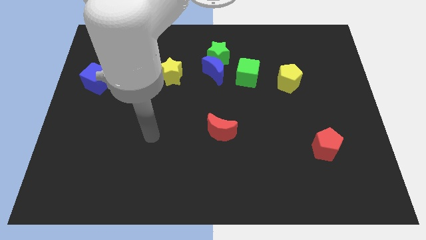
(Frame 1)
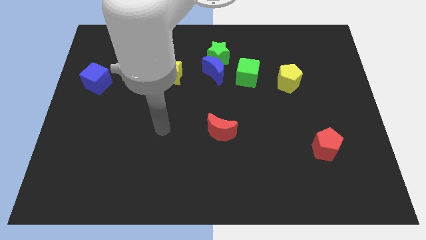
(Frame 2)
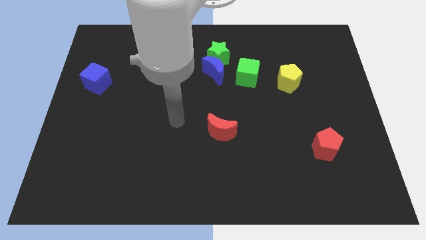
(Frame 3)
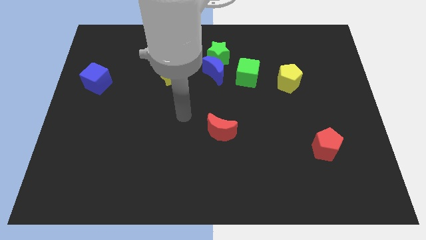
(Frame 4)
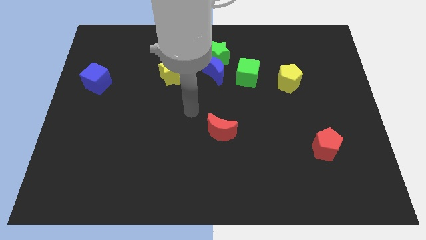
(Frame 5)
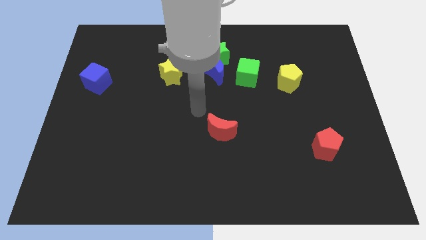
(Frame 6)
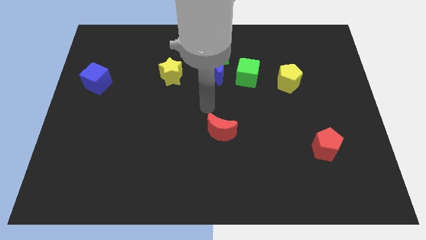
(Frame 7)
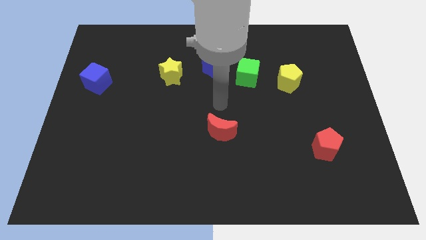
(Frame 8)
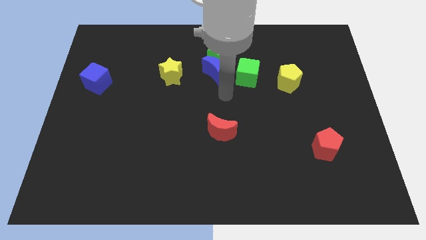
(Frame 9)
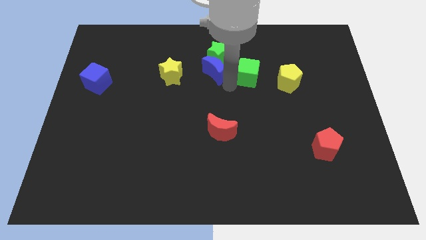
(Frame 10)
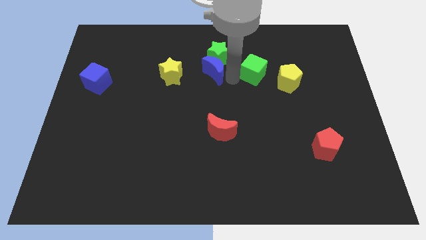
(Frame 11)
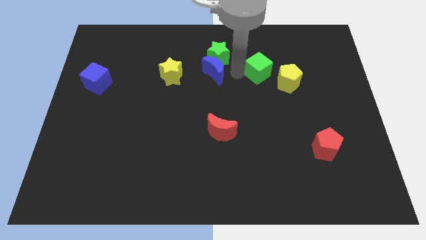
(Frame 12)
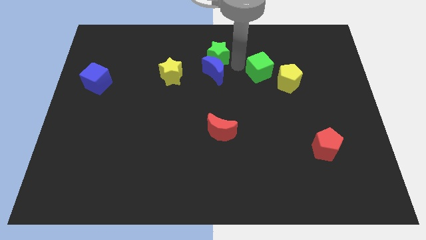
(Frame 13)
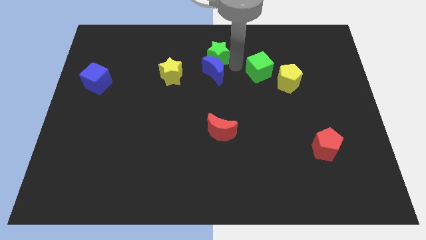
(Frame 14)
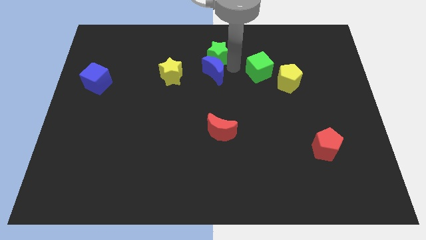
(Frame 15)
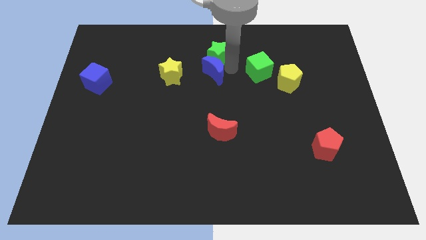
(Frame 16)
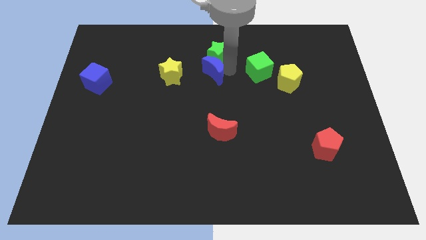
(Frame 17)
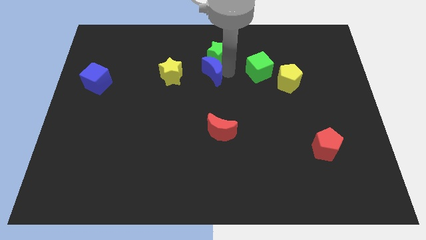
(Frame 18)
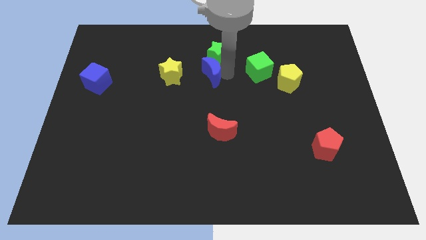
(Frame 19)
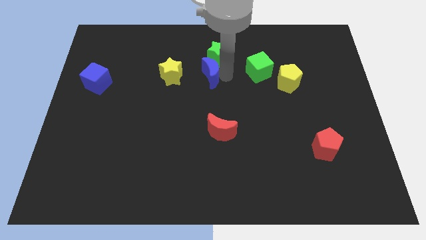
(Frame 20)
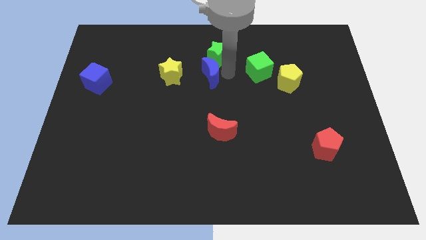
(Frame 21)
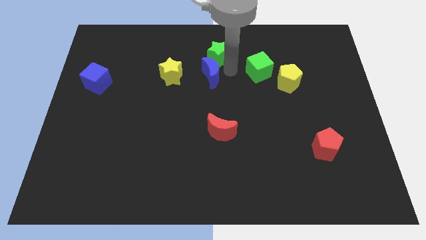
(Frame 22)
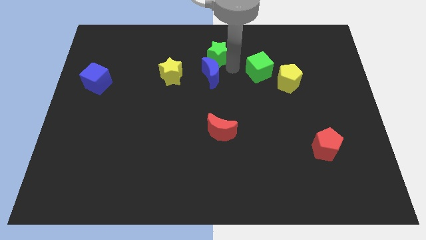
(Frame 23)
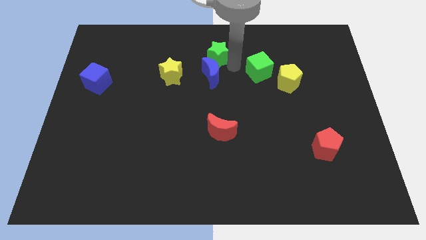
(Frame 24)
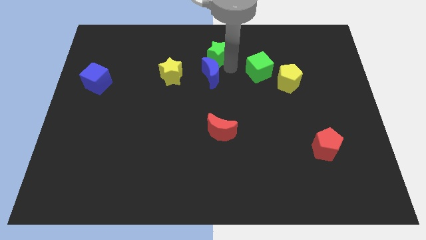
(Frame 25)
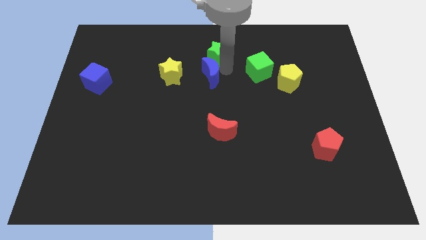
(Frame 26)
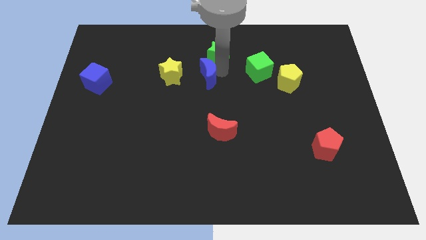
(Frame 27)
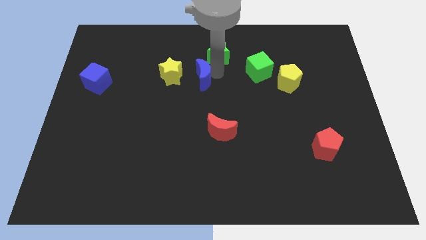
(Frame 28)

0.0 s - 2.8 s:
pull the blue moon apart from the green star and green cube

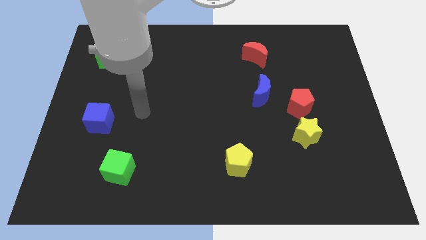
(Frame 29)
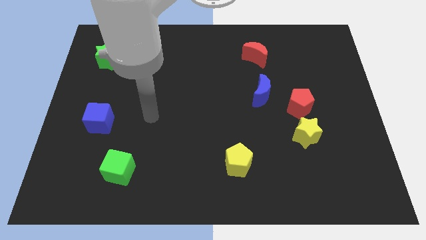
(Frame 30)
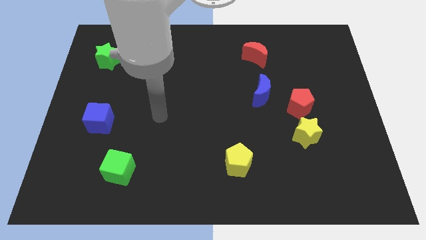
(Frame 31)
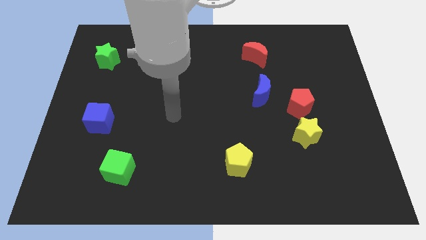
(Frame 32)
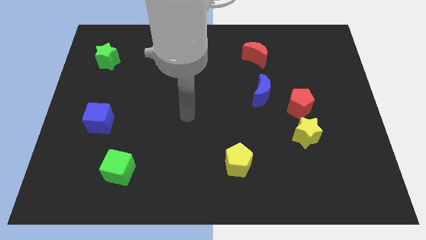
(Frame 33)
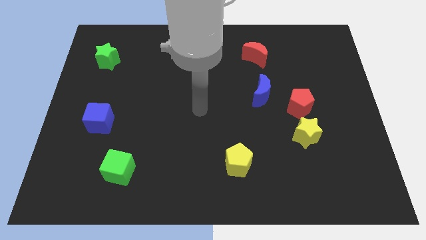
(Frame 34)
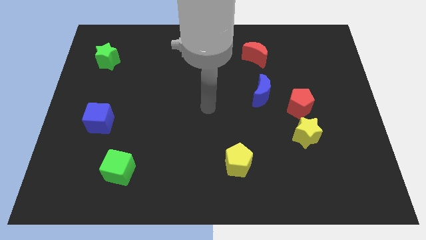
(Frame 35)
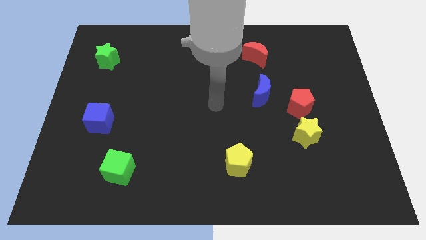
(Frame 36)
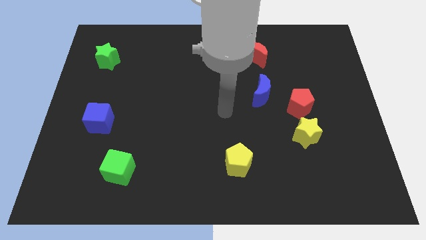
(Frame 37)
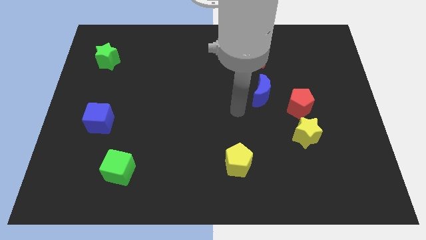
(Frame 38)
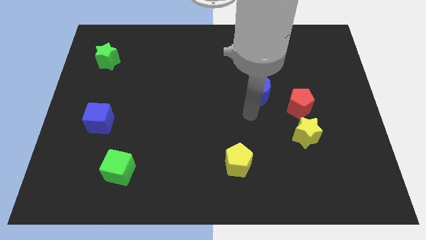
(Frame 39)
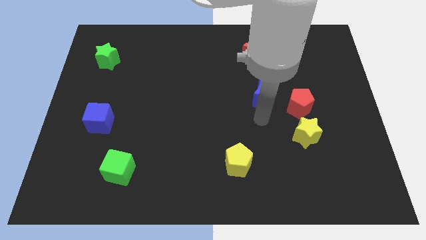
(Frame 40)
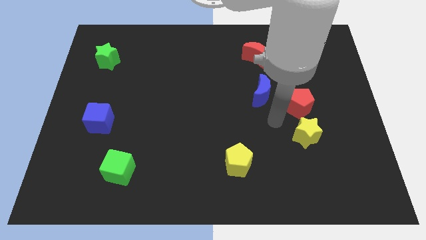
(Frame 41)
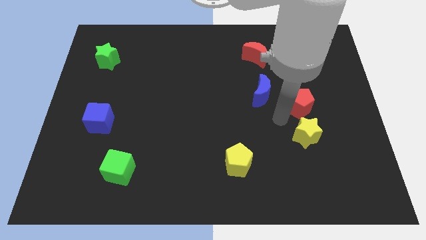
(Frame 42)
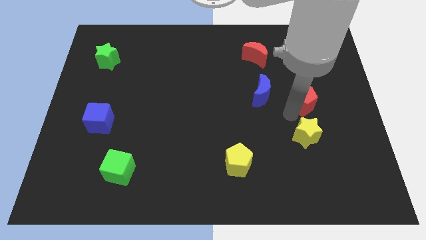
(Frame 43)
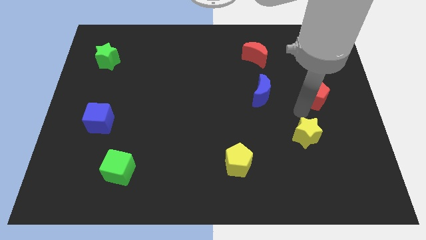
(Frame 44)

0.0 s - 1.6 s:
move the yellow star away from the red pentagon

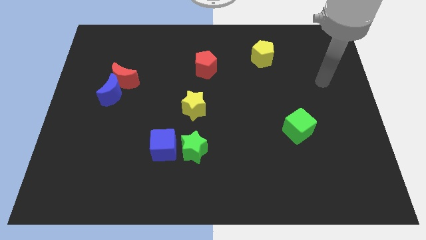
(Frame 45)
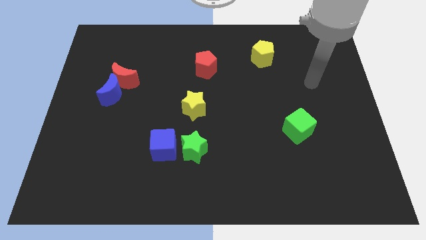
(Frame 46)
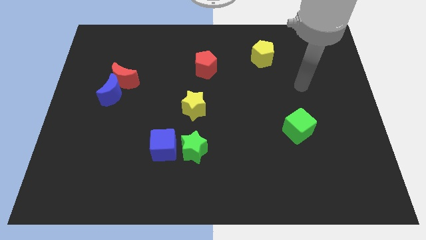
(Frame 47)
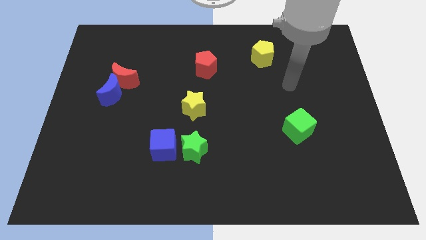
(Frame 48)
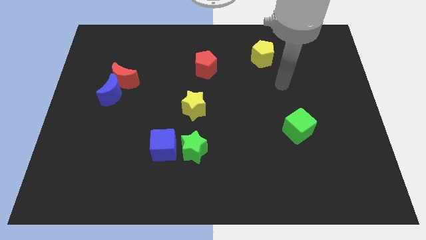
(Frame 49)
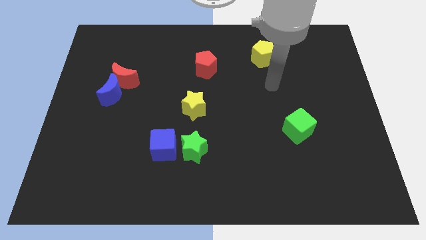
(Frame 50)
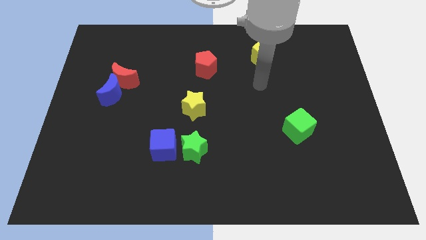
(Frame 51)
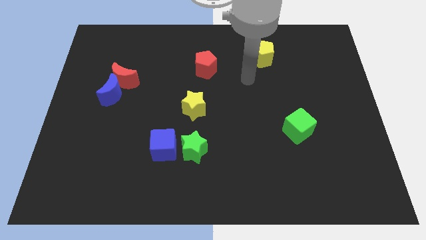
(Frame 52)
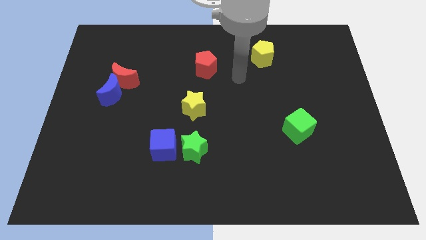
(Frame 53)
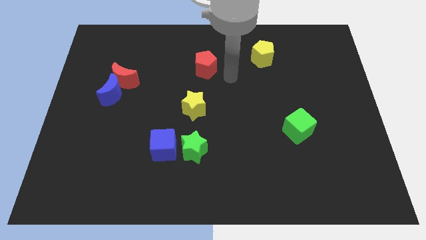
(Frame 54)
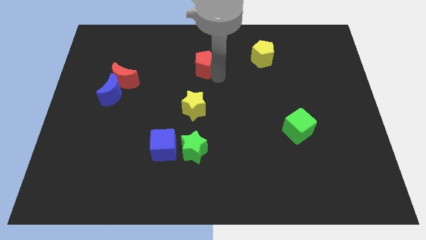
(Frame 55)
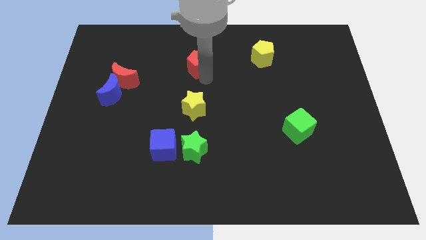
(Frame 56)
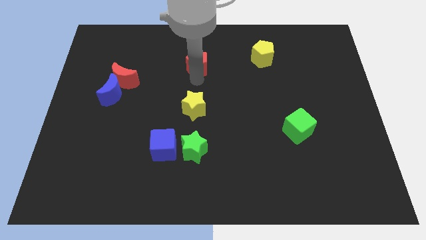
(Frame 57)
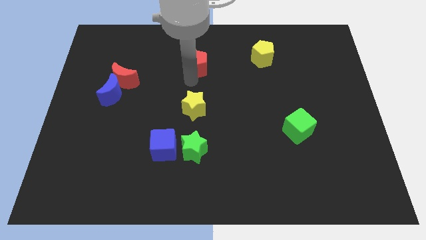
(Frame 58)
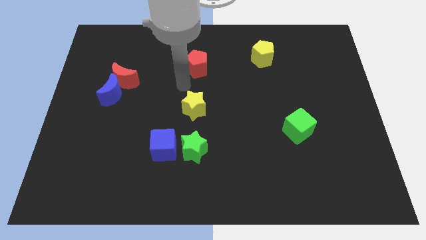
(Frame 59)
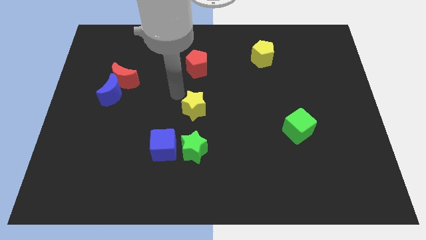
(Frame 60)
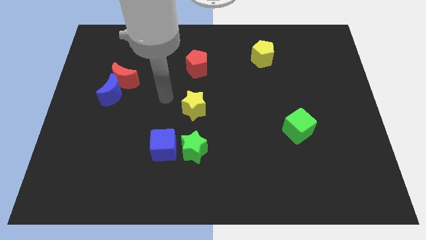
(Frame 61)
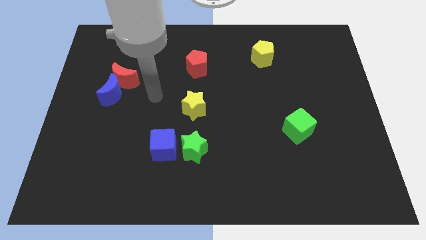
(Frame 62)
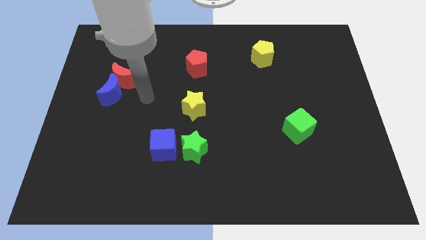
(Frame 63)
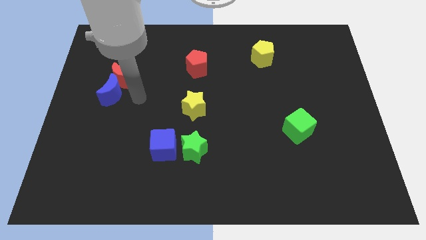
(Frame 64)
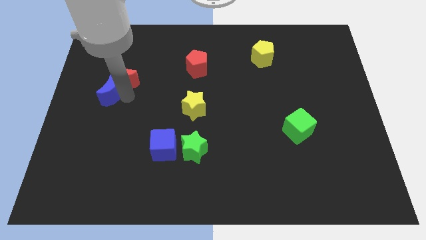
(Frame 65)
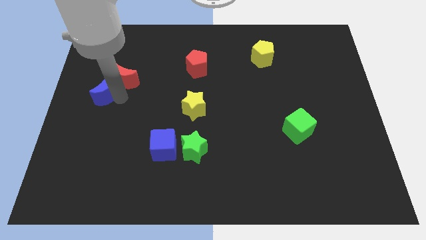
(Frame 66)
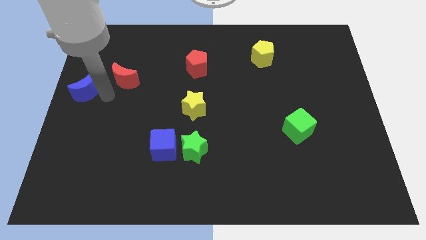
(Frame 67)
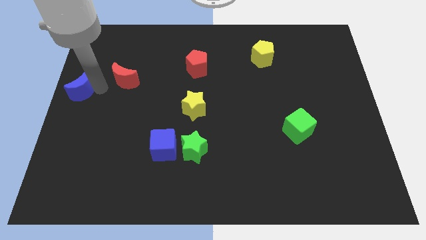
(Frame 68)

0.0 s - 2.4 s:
move the red moon away from the blue moon

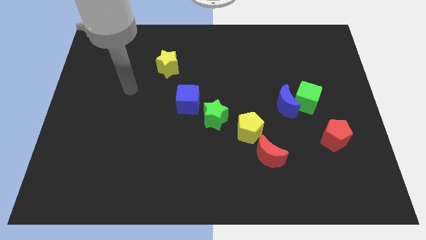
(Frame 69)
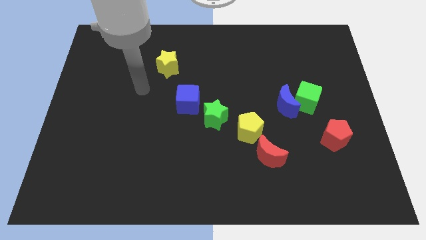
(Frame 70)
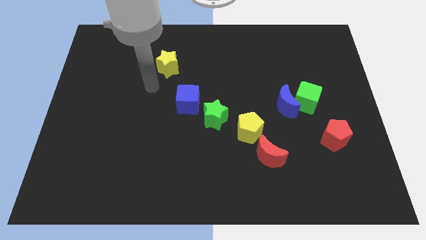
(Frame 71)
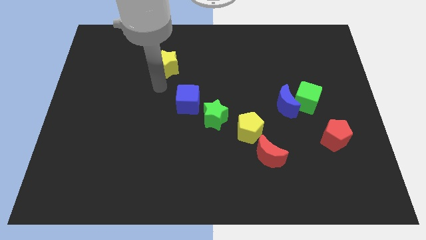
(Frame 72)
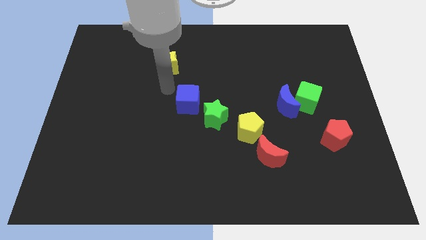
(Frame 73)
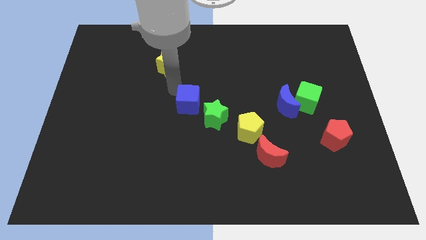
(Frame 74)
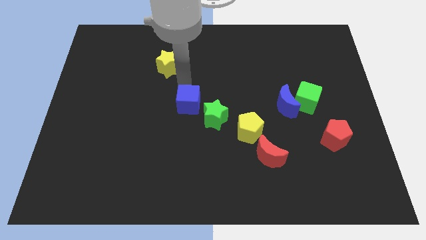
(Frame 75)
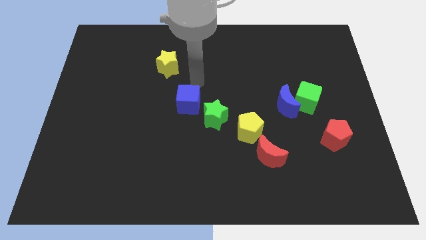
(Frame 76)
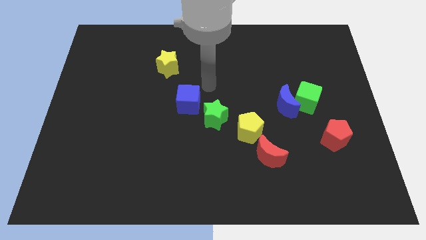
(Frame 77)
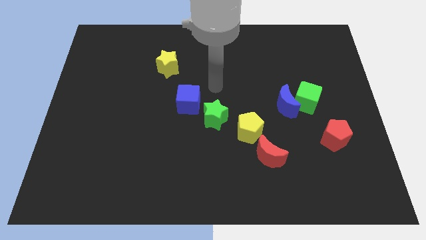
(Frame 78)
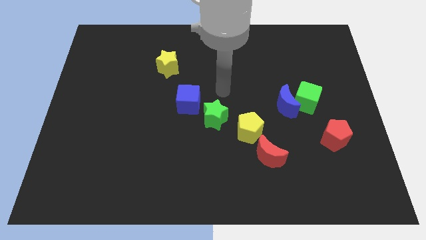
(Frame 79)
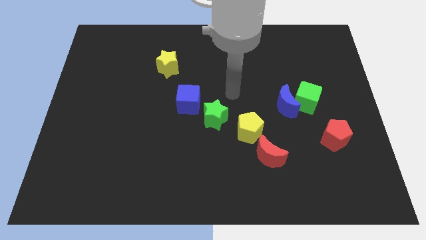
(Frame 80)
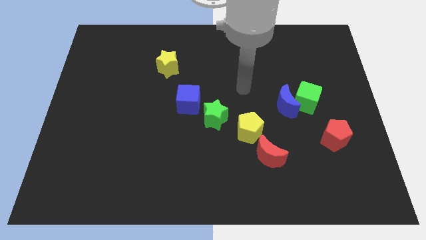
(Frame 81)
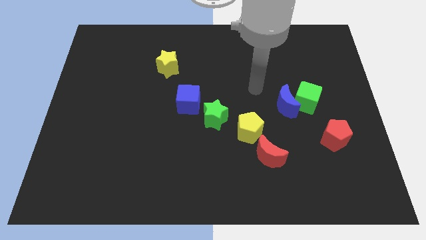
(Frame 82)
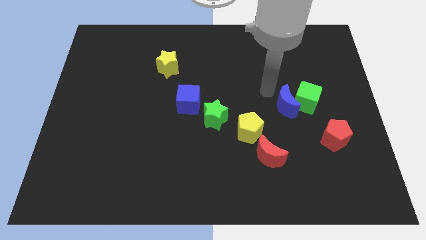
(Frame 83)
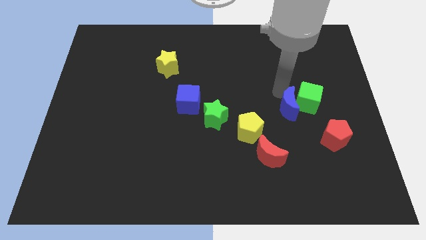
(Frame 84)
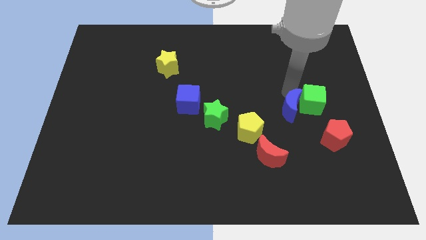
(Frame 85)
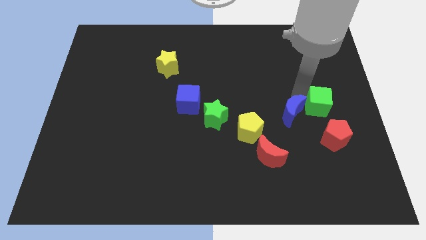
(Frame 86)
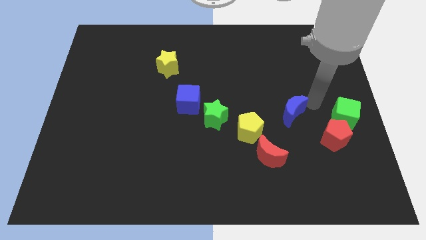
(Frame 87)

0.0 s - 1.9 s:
move the blue moon away from the green cube

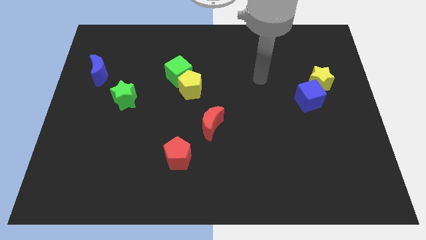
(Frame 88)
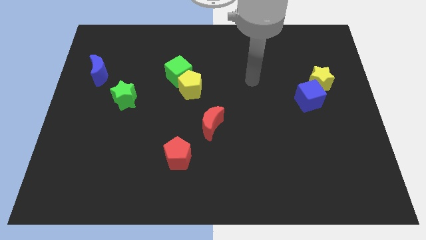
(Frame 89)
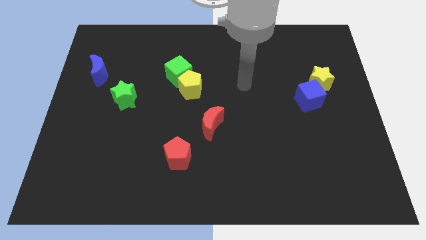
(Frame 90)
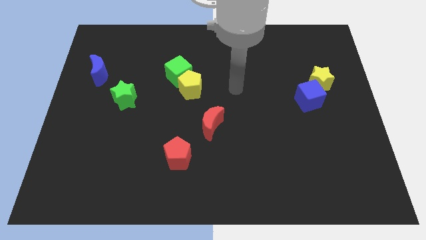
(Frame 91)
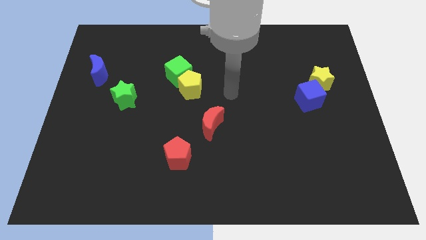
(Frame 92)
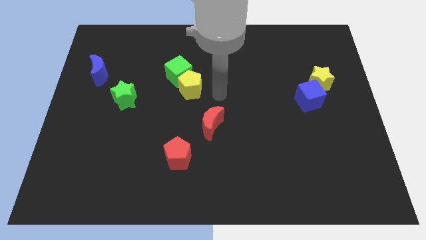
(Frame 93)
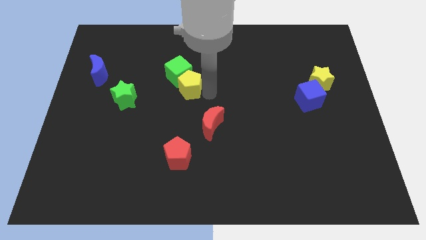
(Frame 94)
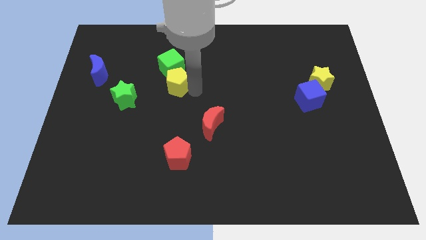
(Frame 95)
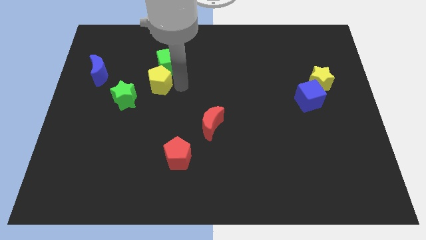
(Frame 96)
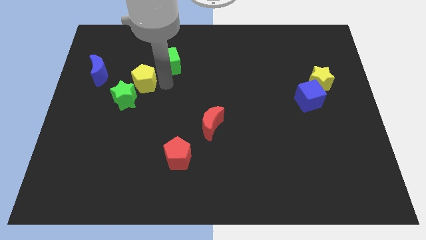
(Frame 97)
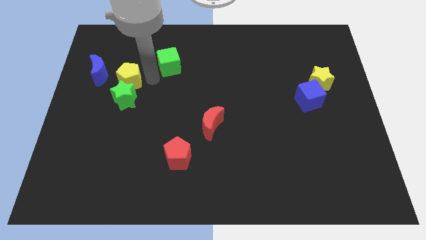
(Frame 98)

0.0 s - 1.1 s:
move the green cube away from the yellow pentagon
